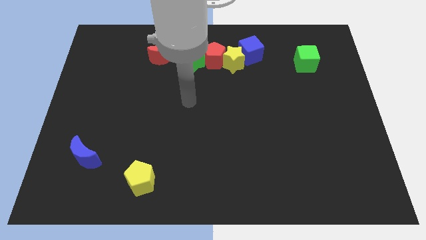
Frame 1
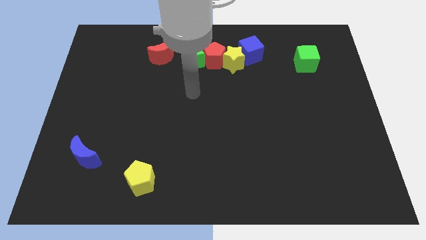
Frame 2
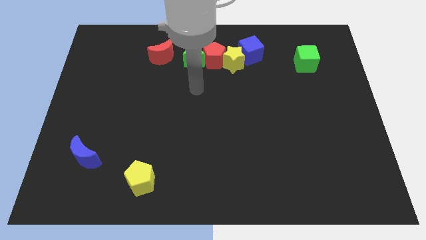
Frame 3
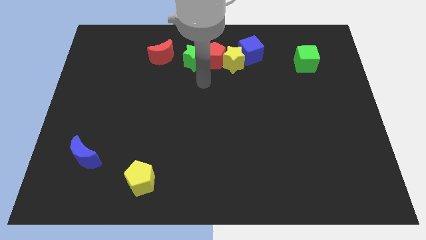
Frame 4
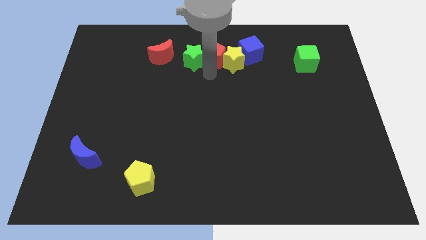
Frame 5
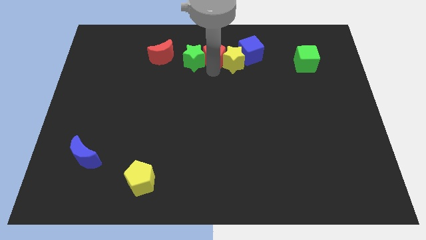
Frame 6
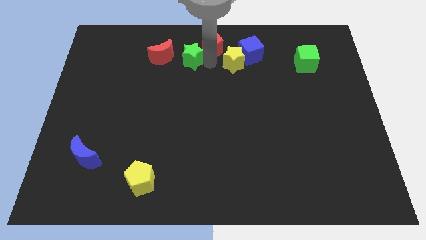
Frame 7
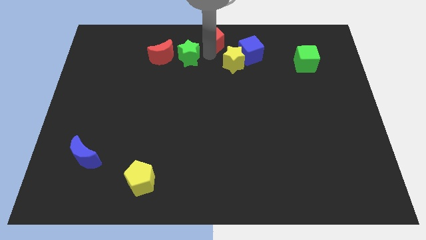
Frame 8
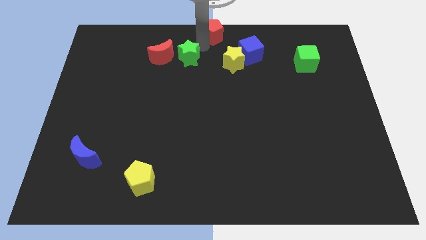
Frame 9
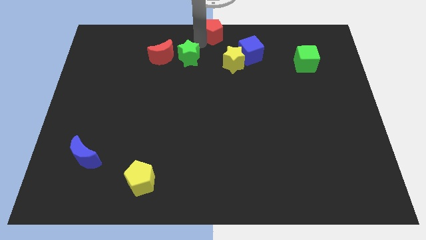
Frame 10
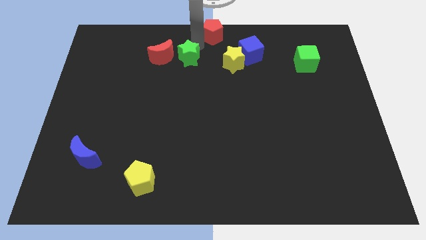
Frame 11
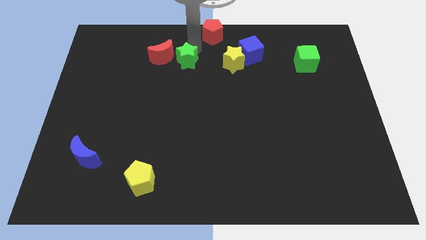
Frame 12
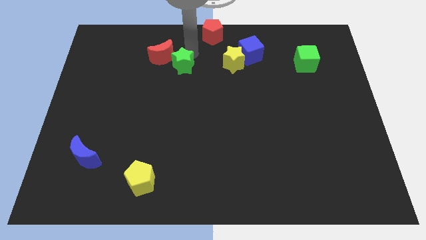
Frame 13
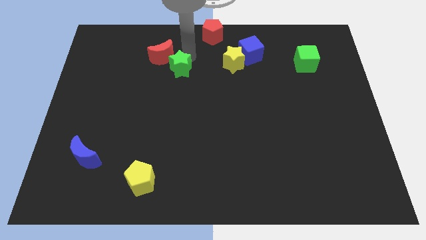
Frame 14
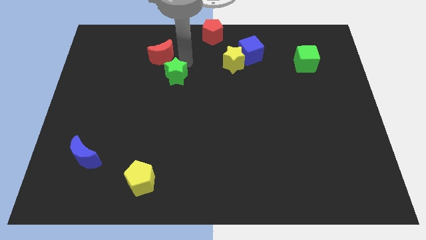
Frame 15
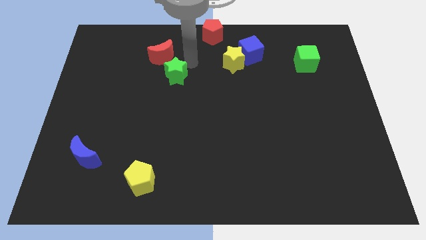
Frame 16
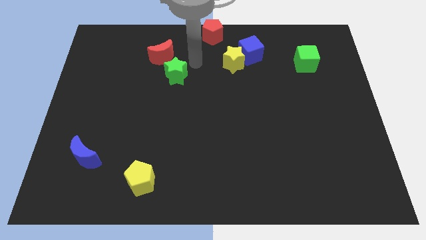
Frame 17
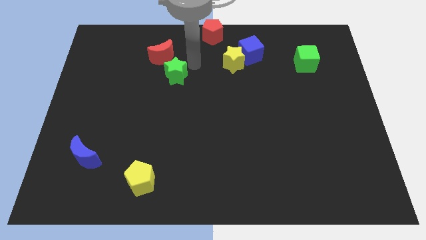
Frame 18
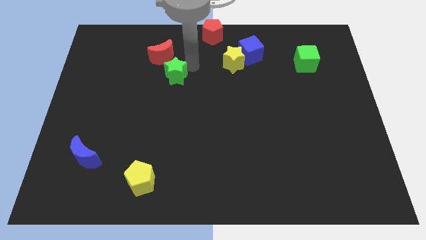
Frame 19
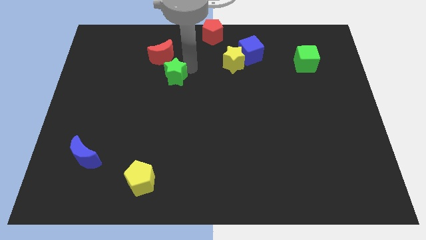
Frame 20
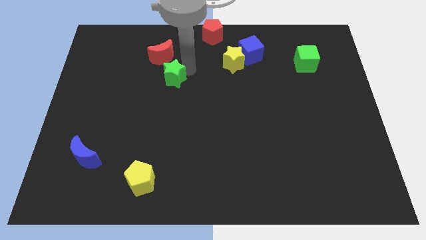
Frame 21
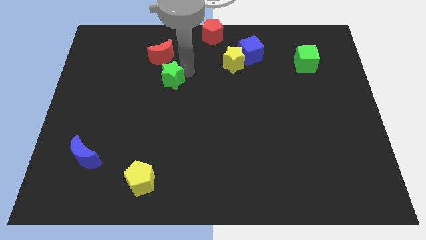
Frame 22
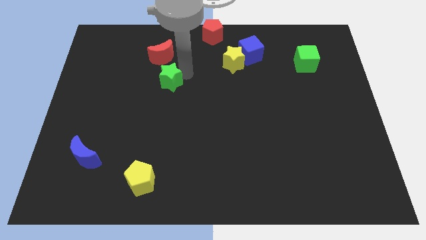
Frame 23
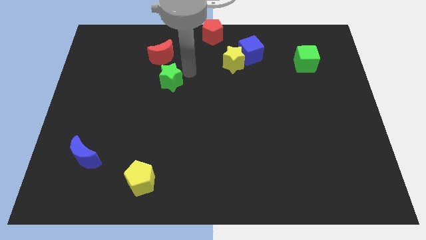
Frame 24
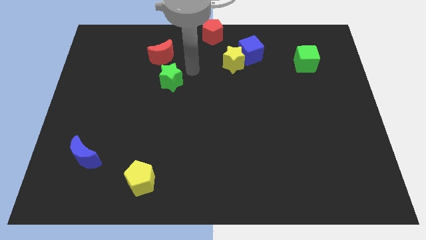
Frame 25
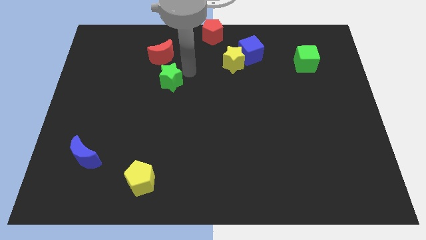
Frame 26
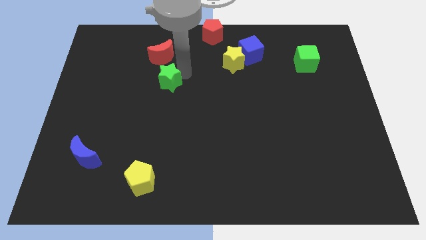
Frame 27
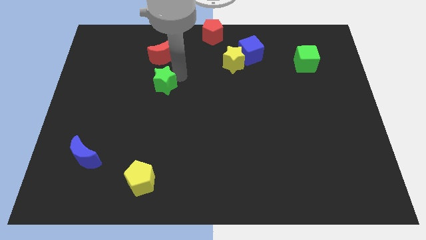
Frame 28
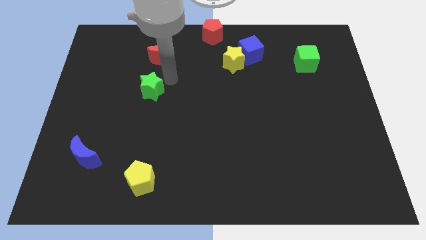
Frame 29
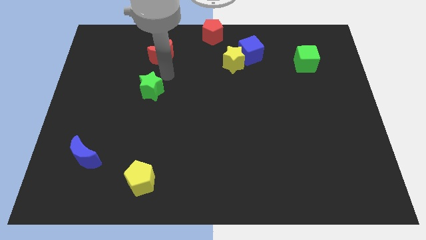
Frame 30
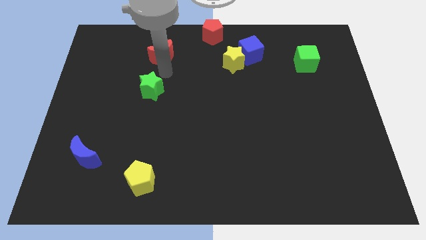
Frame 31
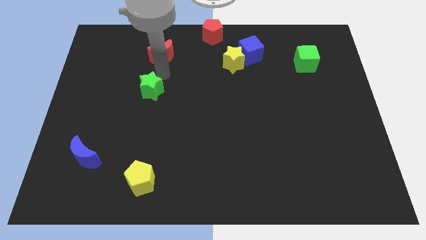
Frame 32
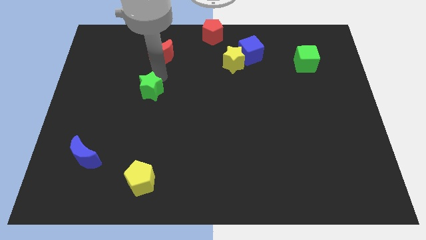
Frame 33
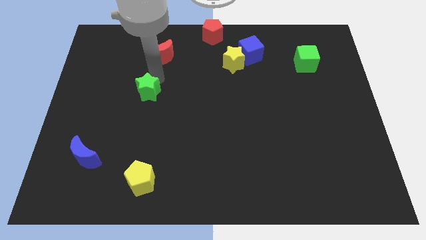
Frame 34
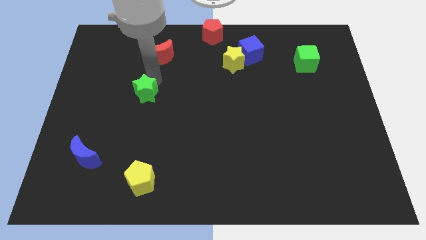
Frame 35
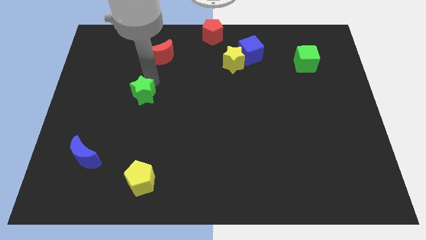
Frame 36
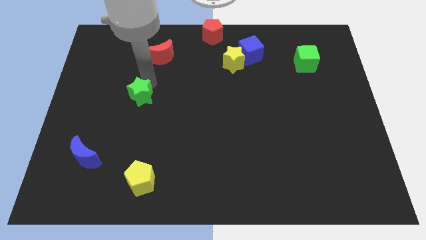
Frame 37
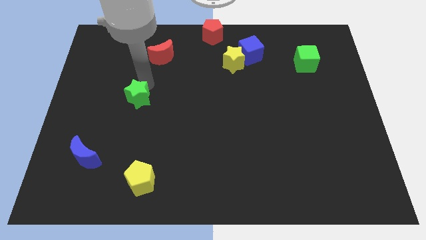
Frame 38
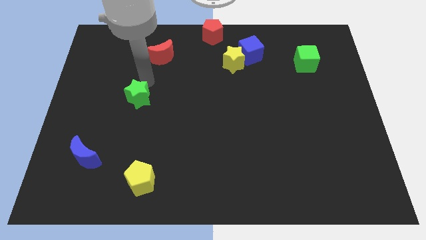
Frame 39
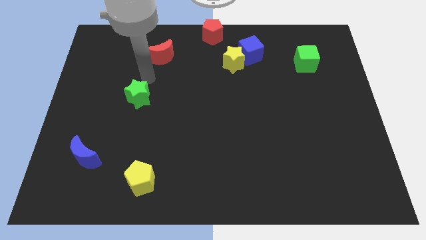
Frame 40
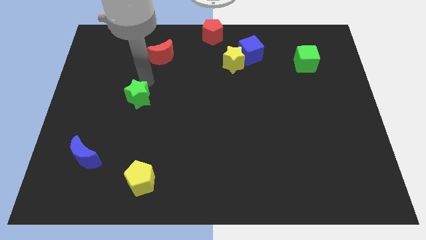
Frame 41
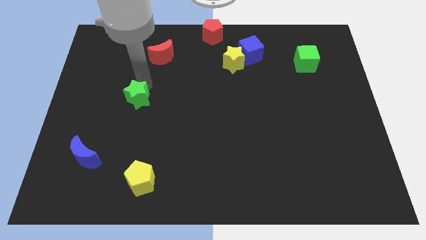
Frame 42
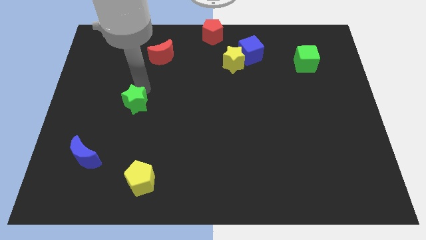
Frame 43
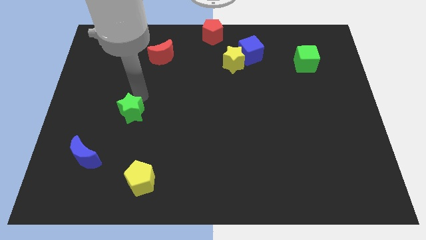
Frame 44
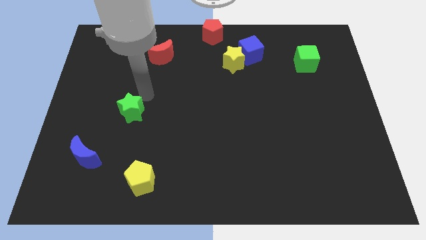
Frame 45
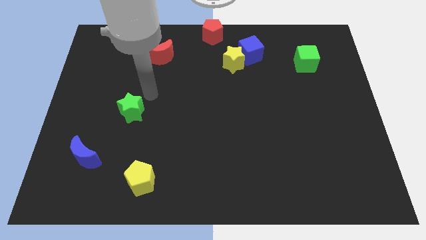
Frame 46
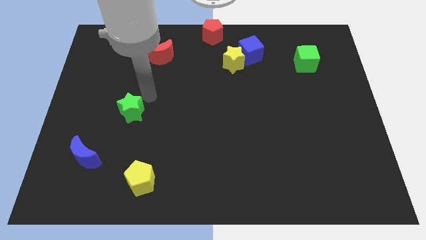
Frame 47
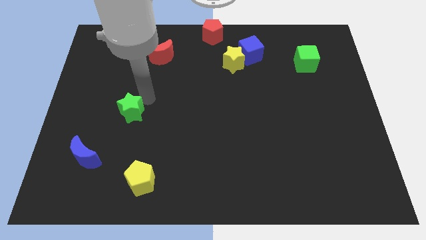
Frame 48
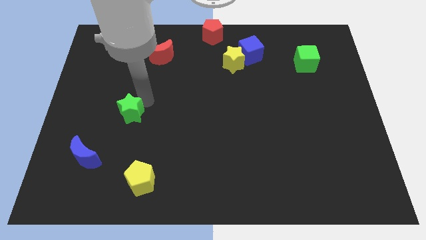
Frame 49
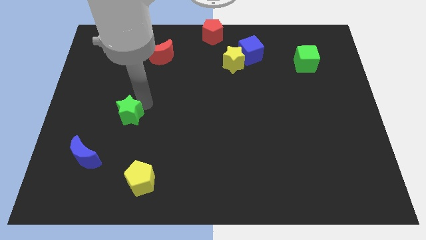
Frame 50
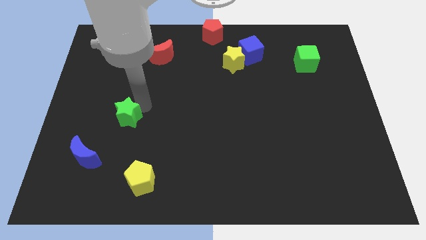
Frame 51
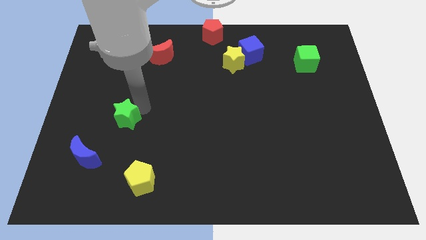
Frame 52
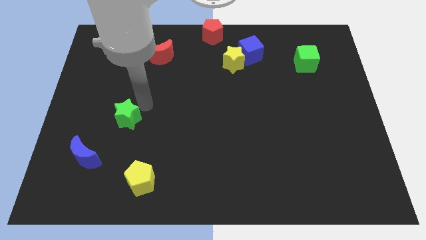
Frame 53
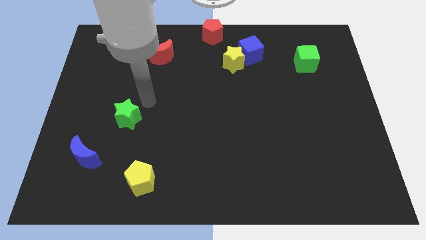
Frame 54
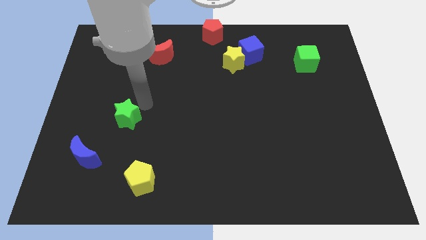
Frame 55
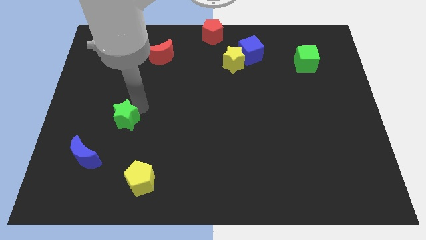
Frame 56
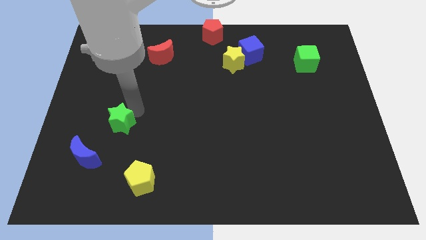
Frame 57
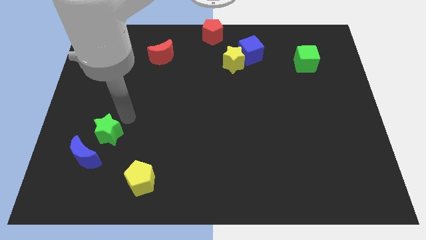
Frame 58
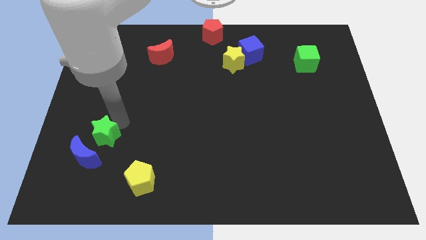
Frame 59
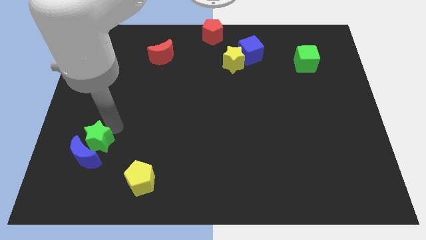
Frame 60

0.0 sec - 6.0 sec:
push the green star towards the blue moon

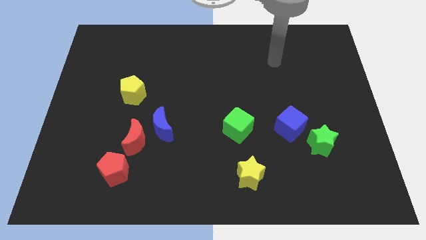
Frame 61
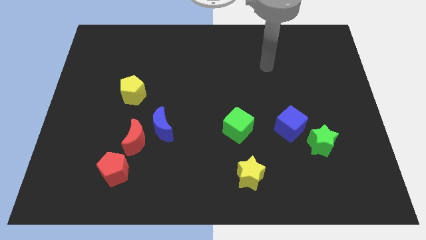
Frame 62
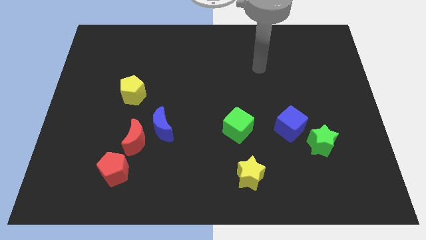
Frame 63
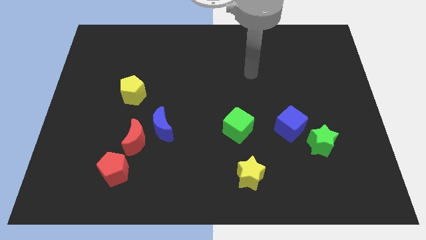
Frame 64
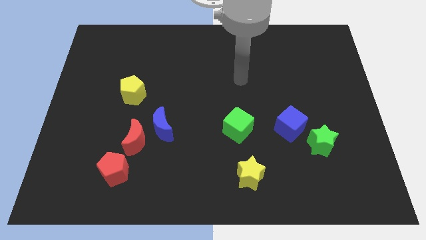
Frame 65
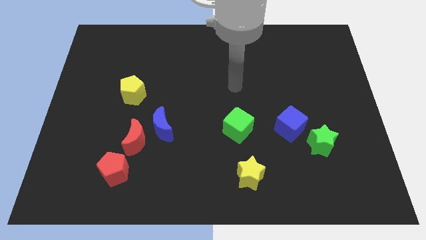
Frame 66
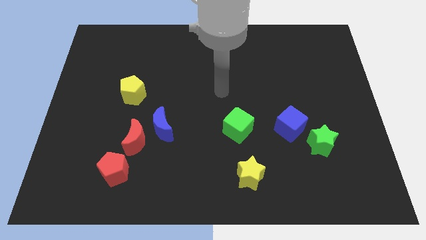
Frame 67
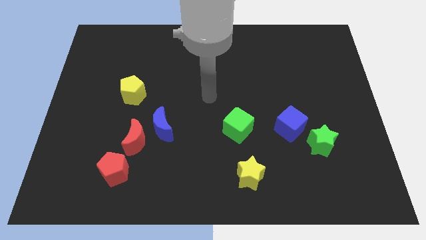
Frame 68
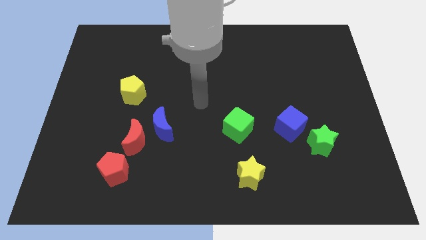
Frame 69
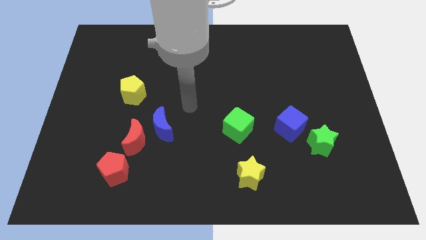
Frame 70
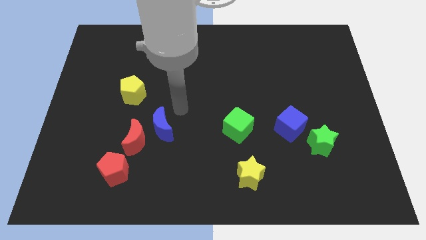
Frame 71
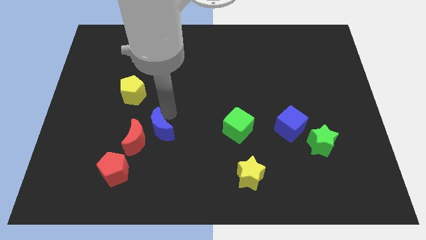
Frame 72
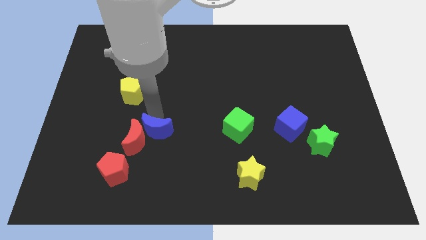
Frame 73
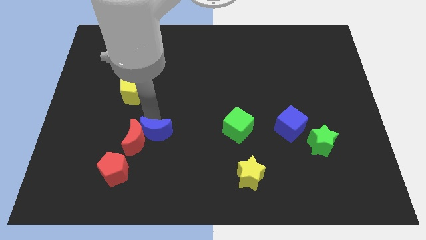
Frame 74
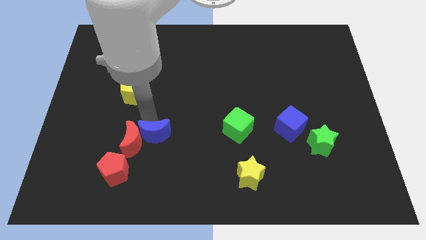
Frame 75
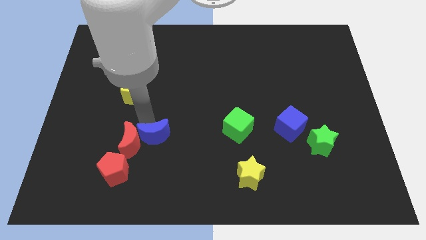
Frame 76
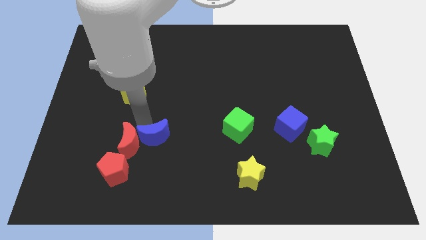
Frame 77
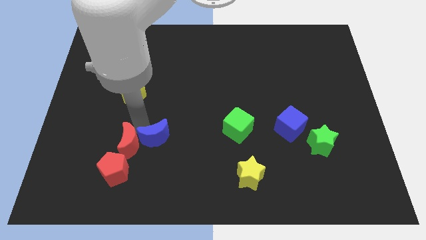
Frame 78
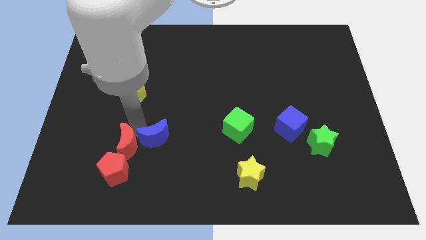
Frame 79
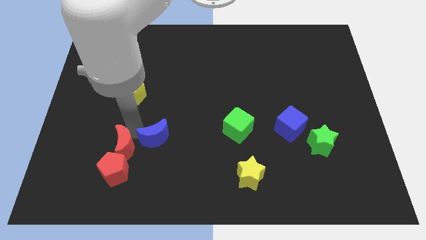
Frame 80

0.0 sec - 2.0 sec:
push the red moon close to the red pentagon
